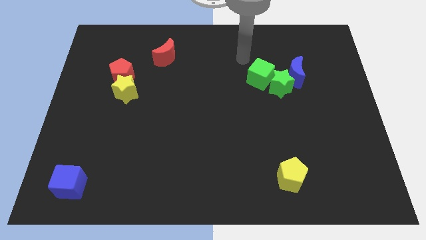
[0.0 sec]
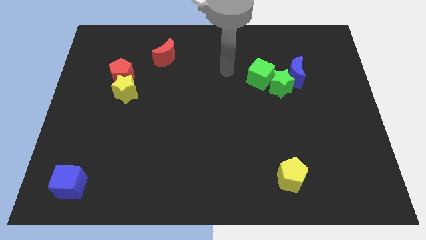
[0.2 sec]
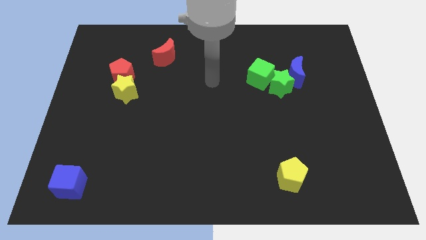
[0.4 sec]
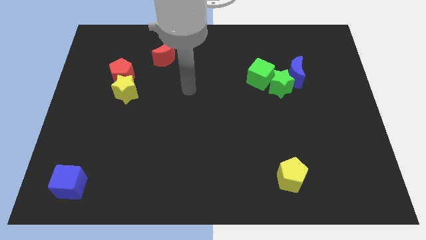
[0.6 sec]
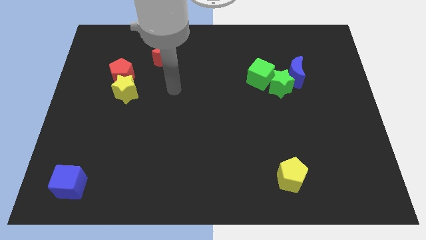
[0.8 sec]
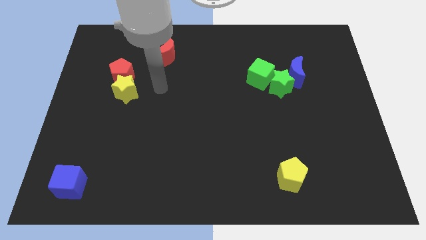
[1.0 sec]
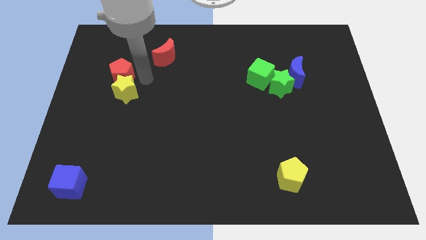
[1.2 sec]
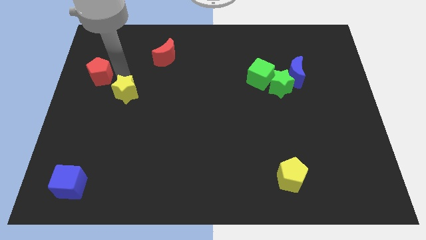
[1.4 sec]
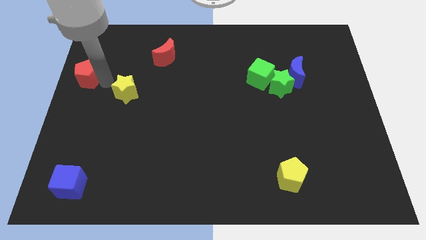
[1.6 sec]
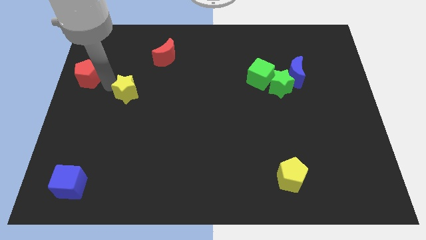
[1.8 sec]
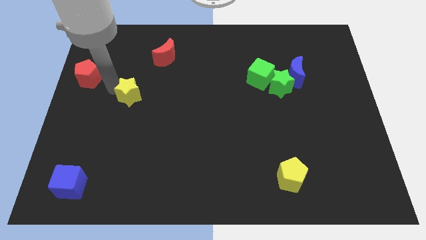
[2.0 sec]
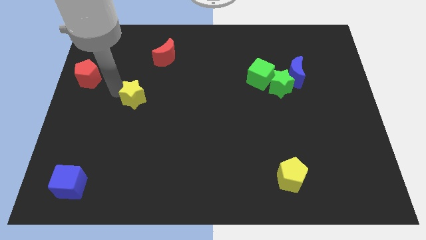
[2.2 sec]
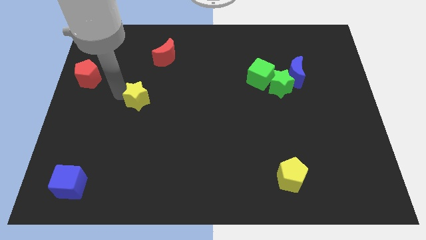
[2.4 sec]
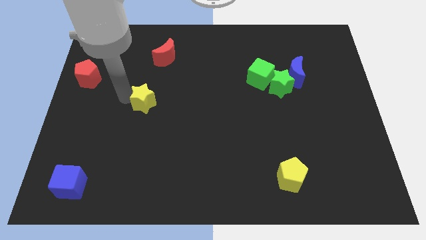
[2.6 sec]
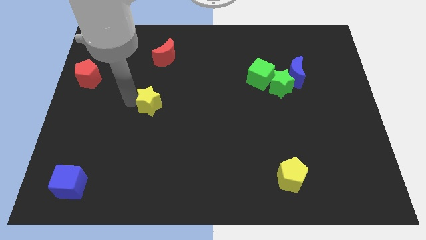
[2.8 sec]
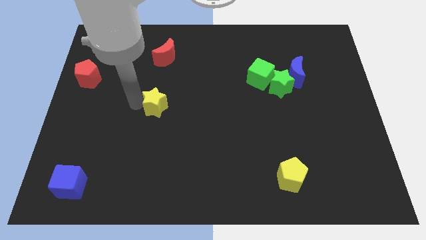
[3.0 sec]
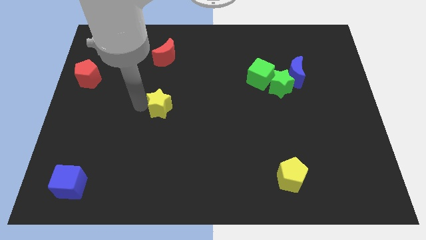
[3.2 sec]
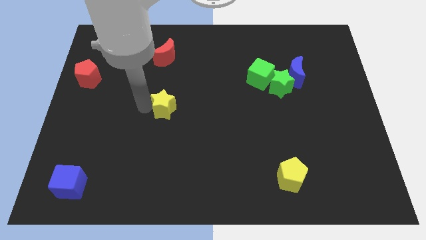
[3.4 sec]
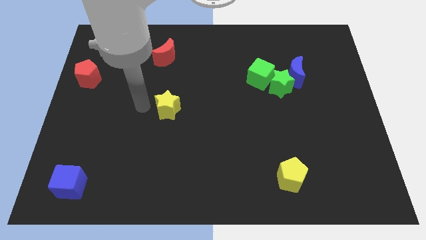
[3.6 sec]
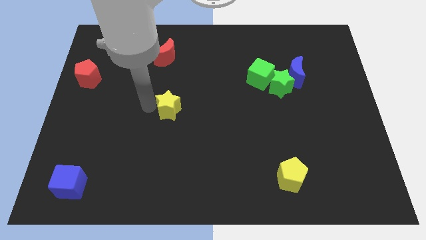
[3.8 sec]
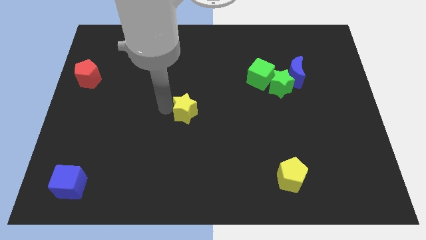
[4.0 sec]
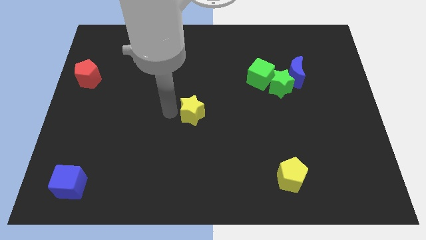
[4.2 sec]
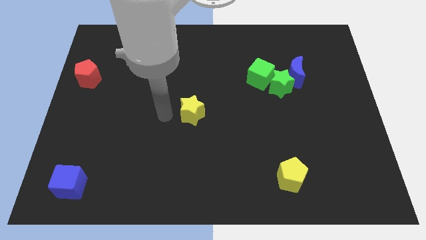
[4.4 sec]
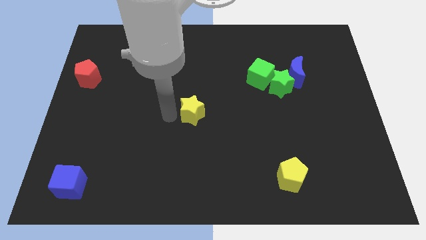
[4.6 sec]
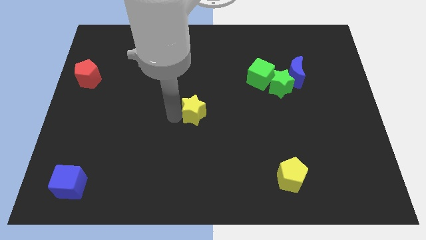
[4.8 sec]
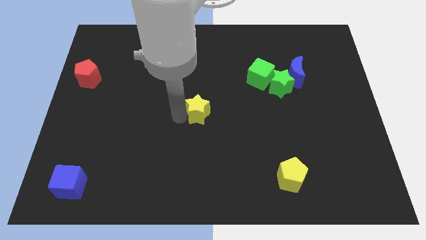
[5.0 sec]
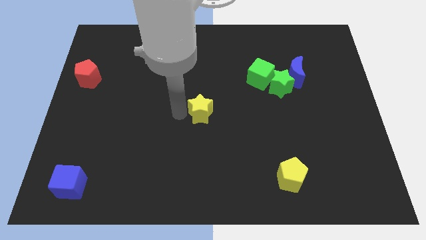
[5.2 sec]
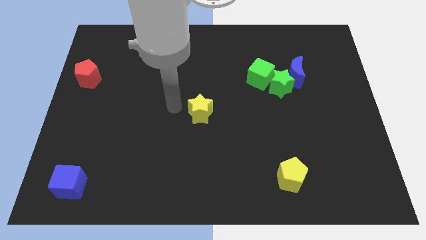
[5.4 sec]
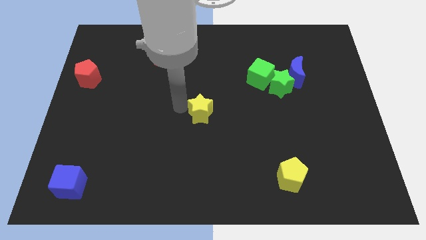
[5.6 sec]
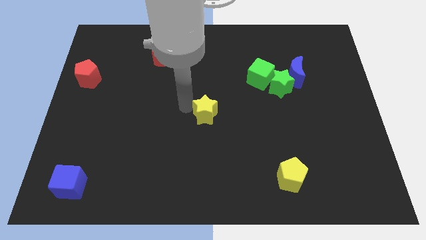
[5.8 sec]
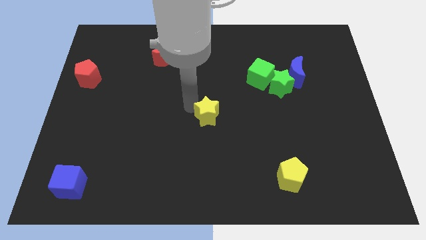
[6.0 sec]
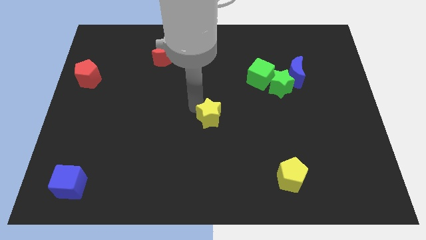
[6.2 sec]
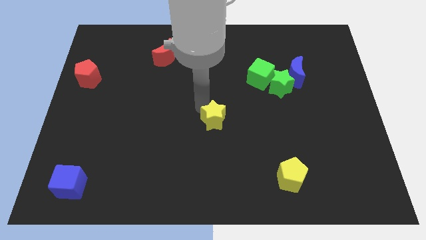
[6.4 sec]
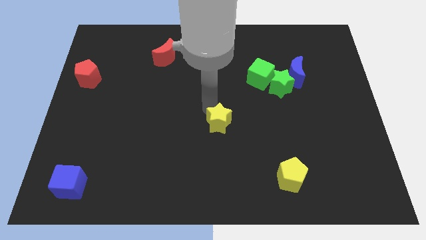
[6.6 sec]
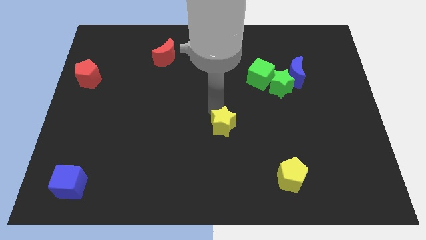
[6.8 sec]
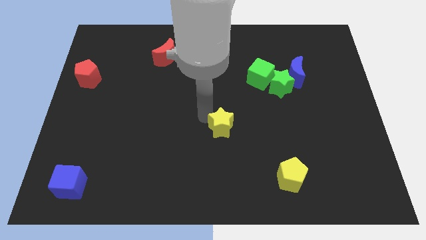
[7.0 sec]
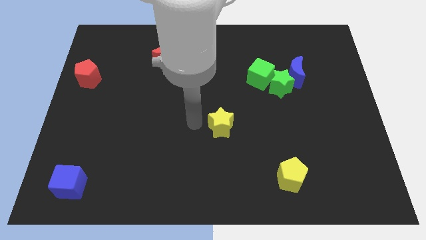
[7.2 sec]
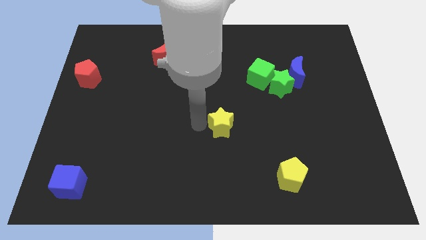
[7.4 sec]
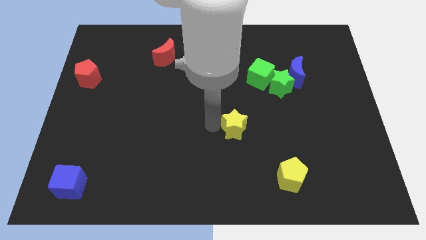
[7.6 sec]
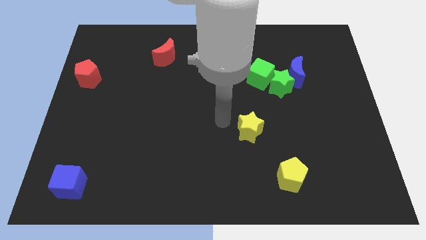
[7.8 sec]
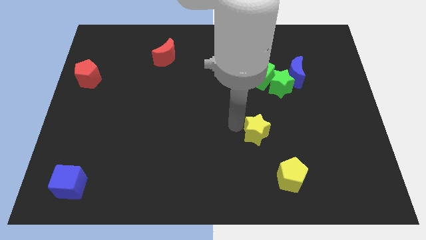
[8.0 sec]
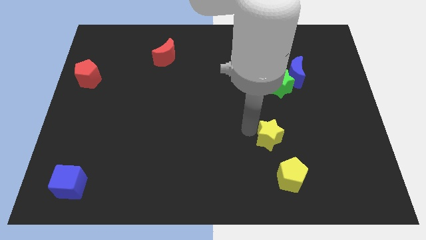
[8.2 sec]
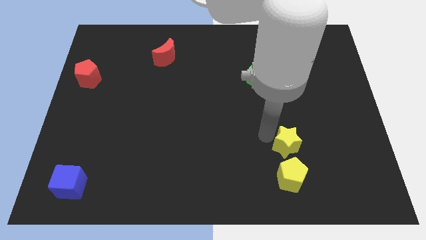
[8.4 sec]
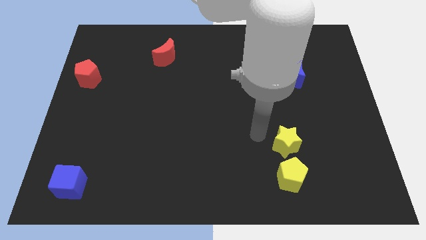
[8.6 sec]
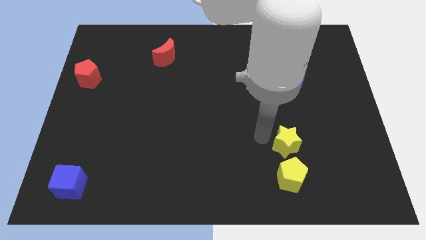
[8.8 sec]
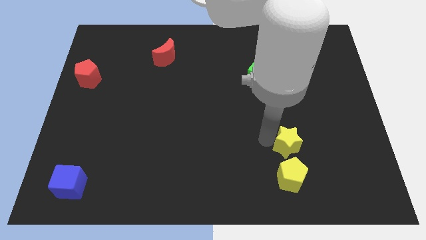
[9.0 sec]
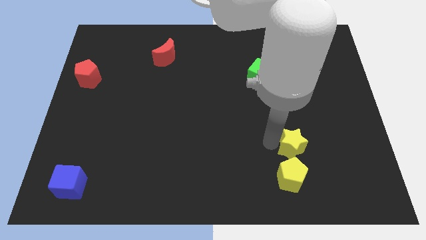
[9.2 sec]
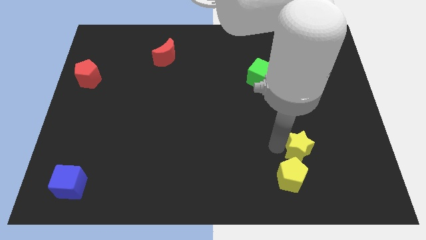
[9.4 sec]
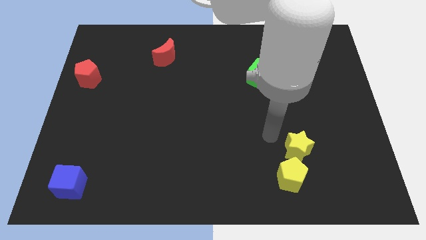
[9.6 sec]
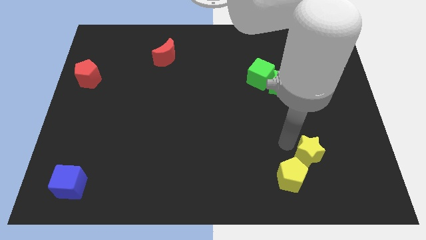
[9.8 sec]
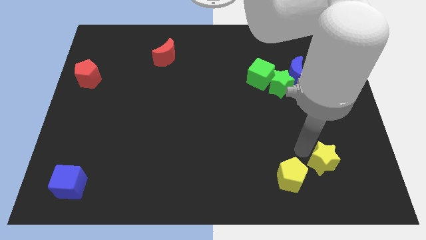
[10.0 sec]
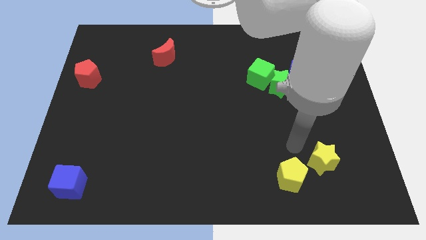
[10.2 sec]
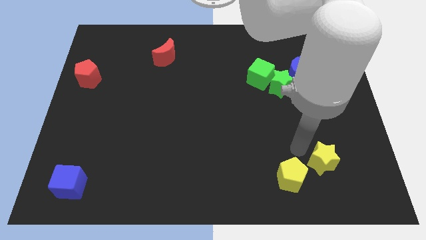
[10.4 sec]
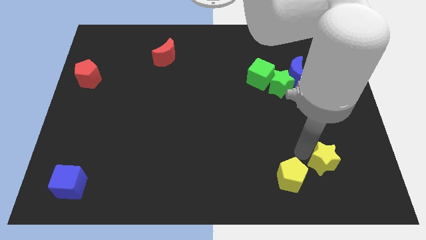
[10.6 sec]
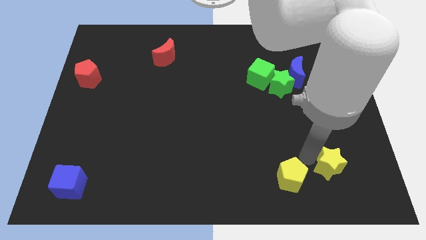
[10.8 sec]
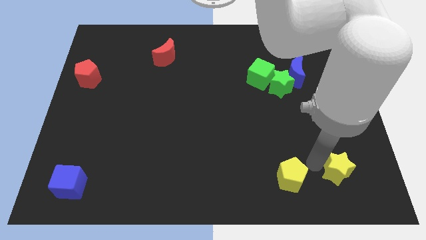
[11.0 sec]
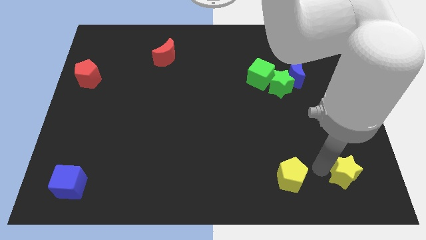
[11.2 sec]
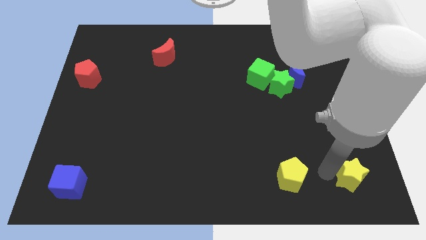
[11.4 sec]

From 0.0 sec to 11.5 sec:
move the yellow star to the bottom right of the board

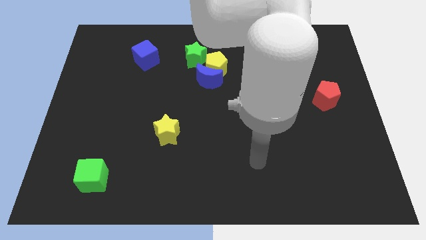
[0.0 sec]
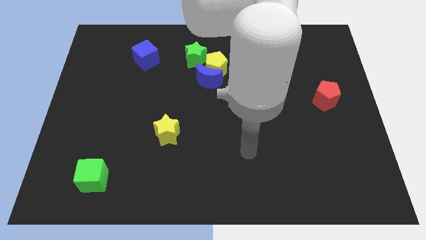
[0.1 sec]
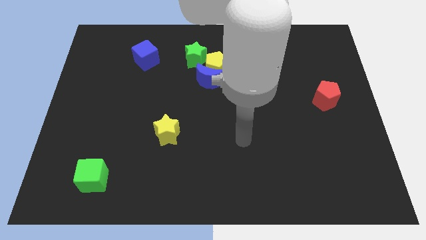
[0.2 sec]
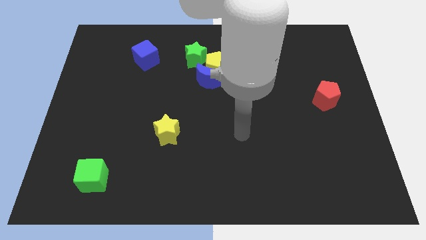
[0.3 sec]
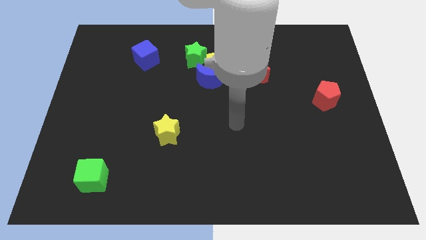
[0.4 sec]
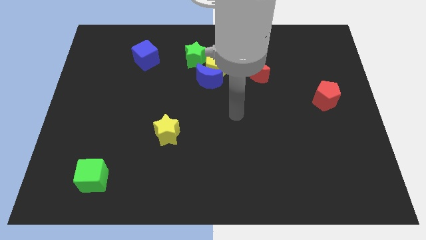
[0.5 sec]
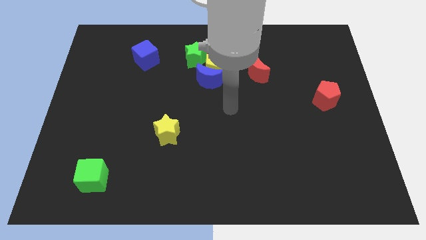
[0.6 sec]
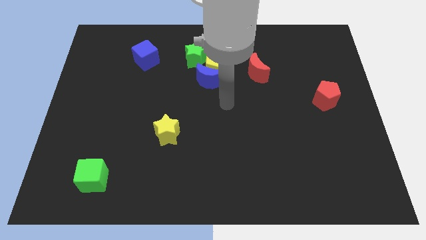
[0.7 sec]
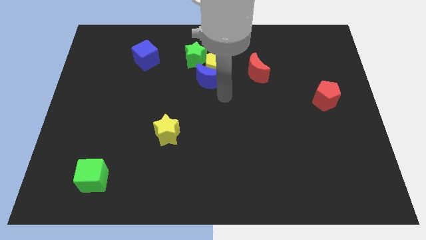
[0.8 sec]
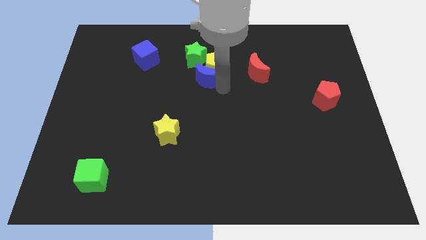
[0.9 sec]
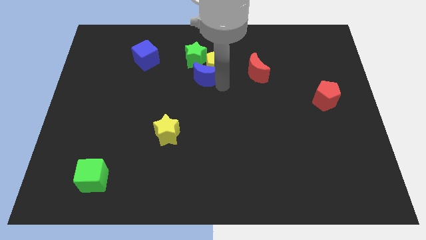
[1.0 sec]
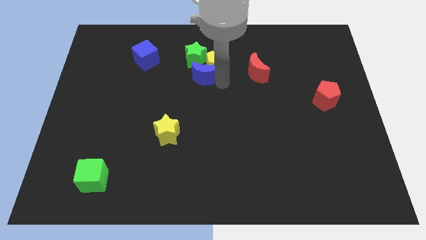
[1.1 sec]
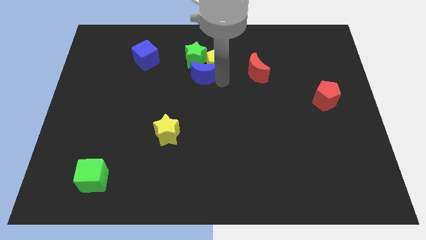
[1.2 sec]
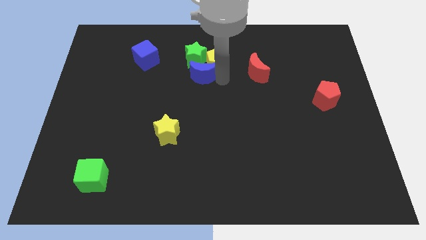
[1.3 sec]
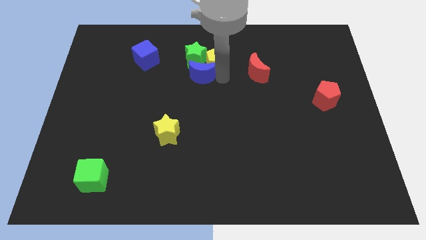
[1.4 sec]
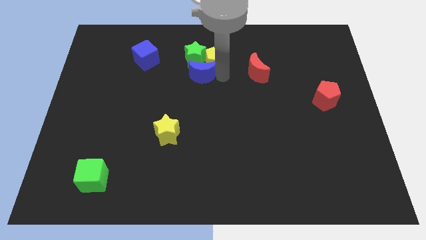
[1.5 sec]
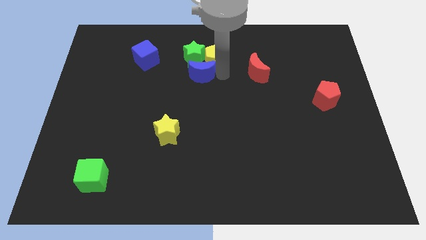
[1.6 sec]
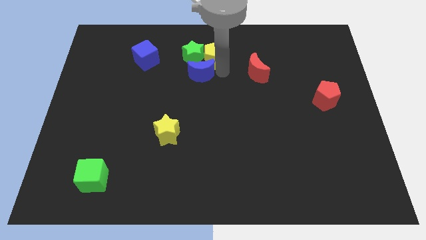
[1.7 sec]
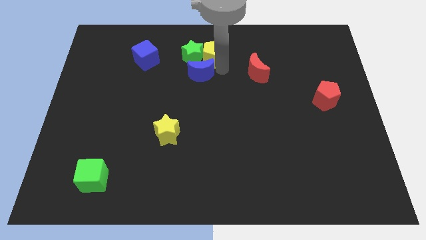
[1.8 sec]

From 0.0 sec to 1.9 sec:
slide the yellow pentagon to the towards your base
